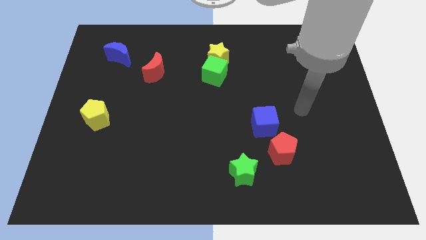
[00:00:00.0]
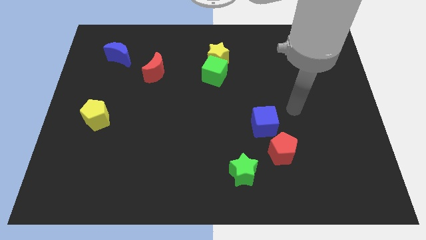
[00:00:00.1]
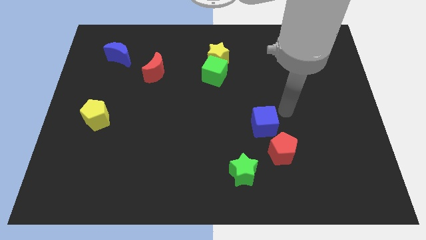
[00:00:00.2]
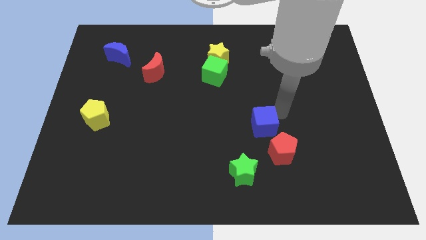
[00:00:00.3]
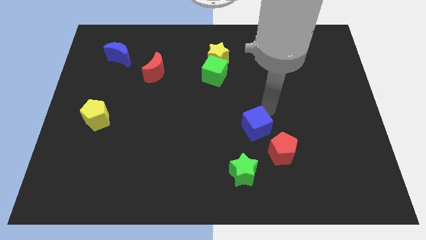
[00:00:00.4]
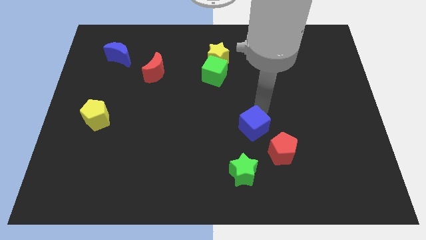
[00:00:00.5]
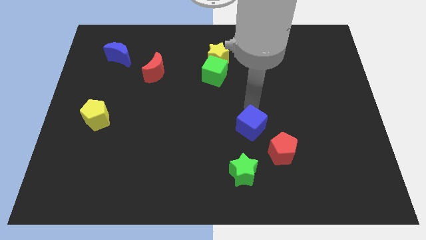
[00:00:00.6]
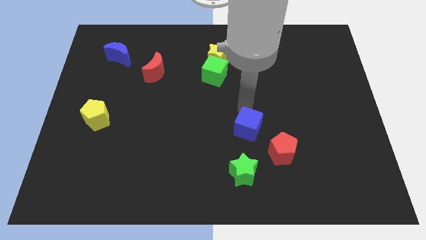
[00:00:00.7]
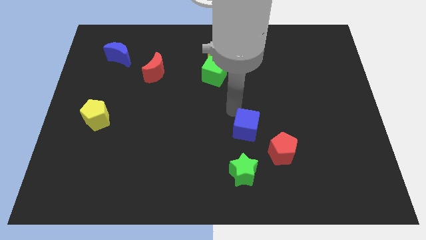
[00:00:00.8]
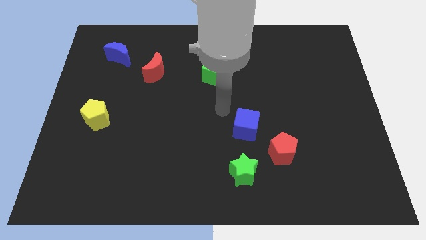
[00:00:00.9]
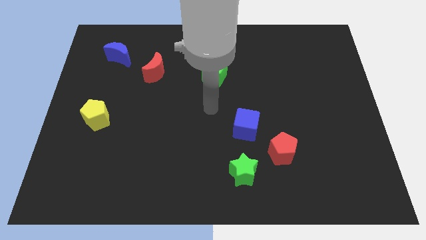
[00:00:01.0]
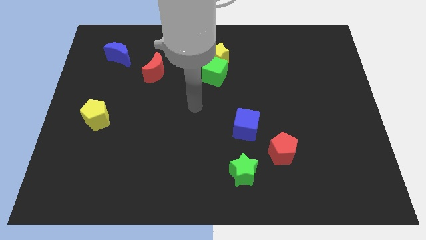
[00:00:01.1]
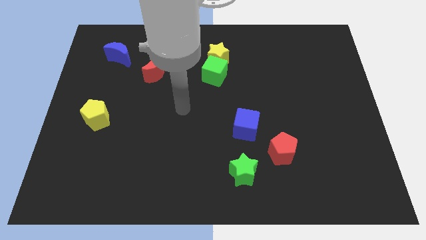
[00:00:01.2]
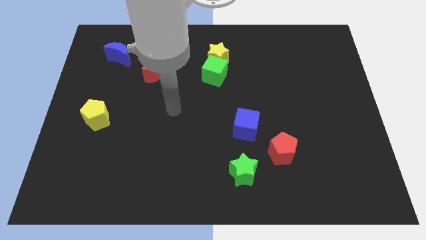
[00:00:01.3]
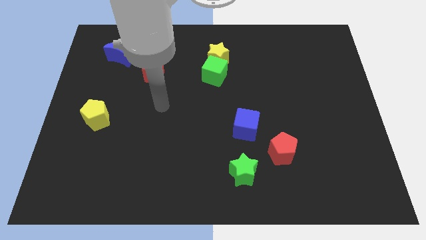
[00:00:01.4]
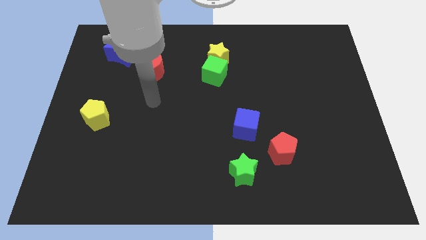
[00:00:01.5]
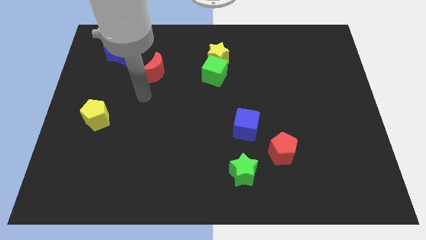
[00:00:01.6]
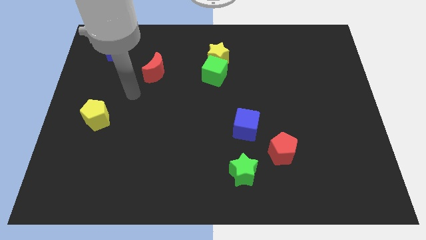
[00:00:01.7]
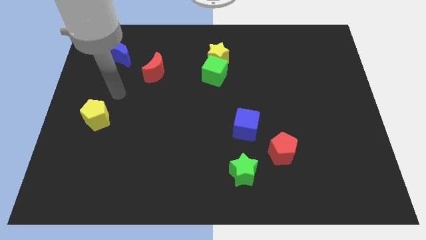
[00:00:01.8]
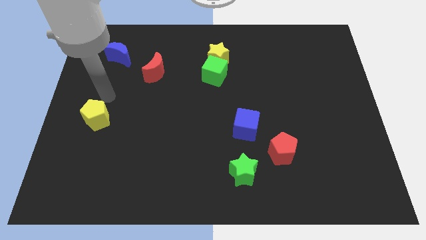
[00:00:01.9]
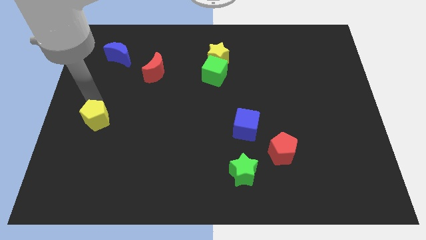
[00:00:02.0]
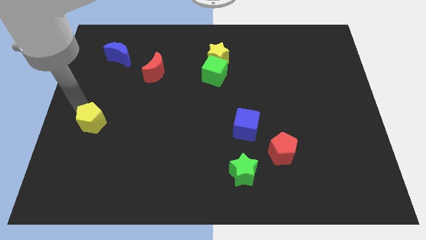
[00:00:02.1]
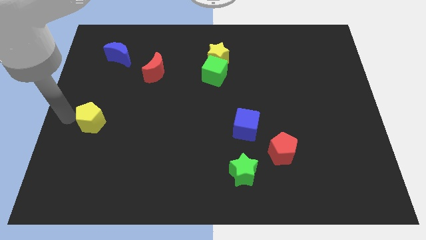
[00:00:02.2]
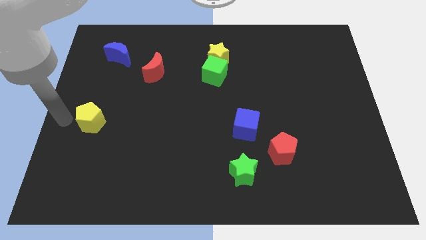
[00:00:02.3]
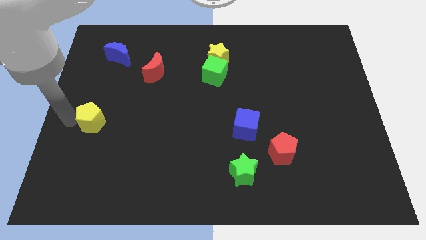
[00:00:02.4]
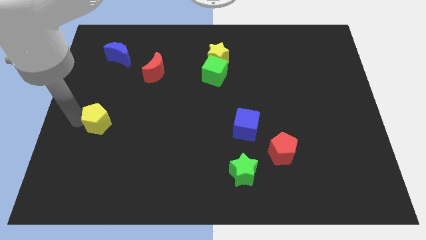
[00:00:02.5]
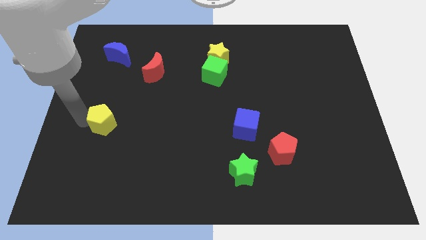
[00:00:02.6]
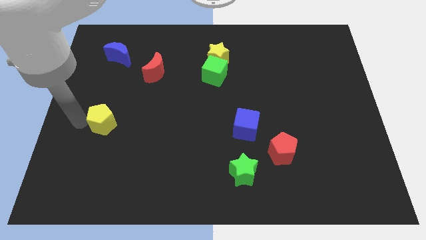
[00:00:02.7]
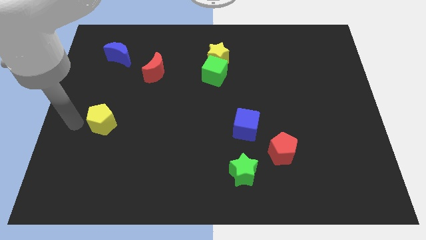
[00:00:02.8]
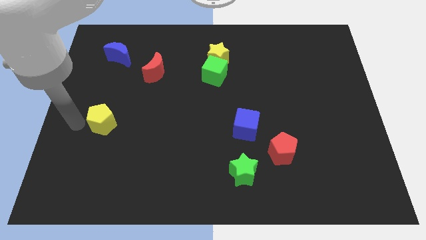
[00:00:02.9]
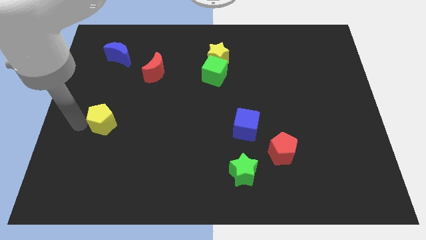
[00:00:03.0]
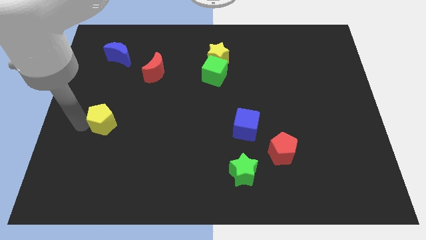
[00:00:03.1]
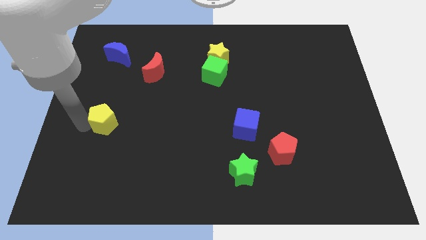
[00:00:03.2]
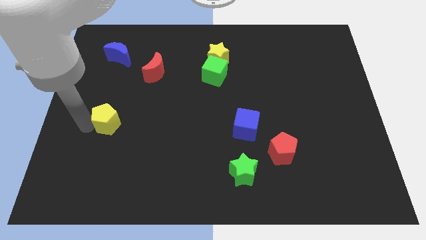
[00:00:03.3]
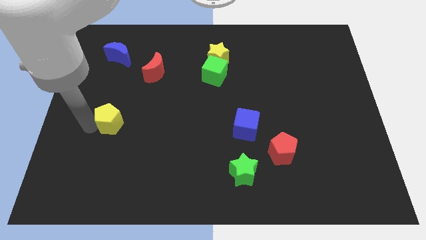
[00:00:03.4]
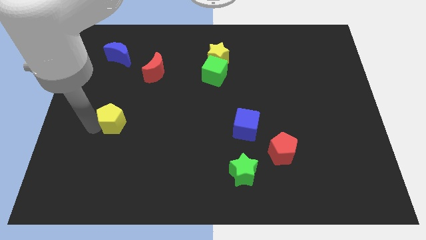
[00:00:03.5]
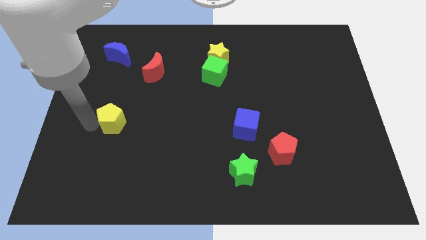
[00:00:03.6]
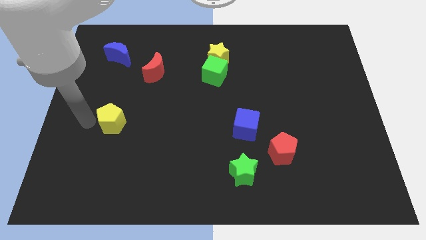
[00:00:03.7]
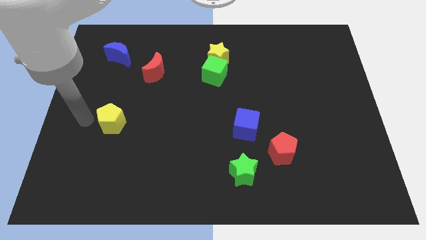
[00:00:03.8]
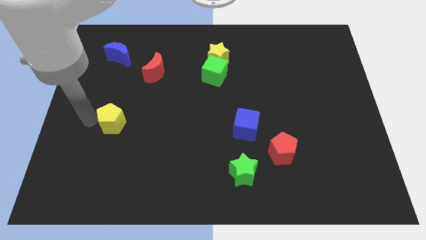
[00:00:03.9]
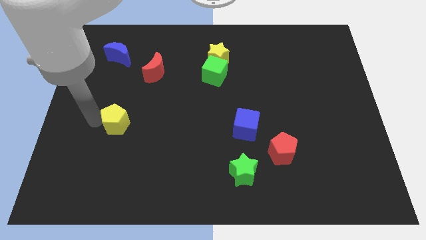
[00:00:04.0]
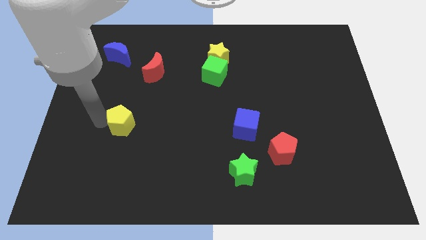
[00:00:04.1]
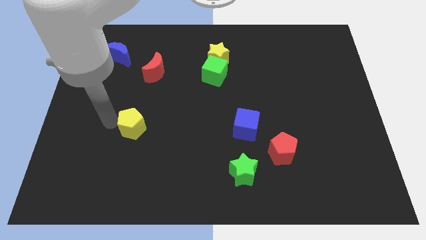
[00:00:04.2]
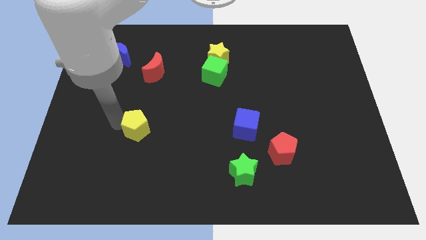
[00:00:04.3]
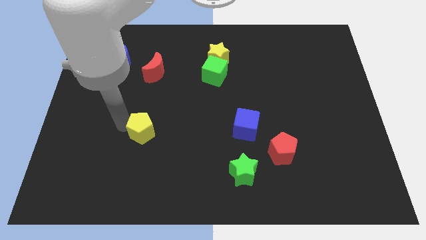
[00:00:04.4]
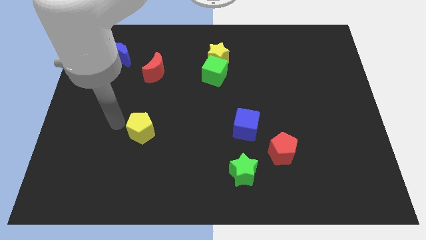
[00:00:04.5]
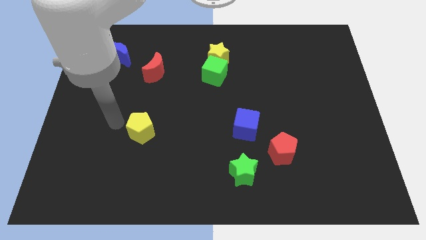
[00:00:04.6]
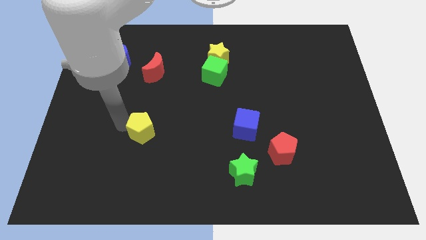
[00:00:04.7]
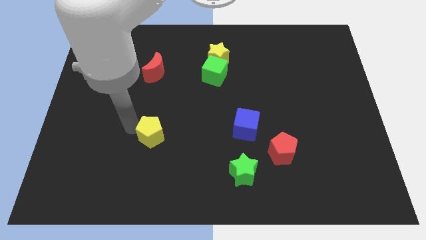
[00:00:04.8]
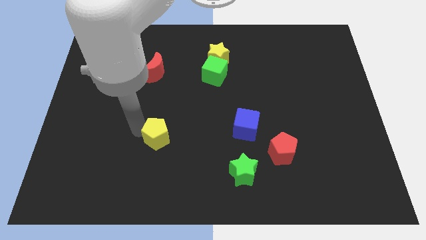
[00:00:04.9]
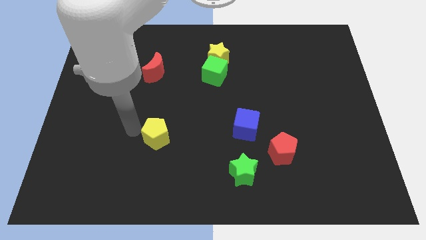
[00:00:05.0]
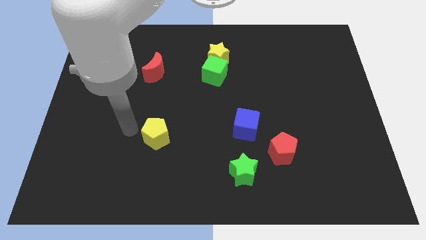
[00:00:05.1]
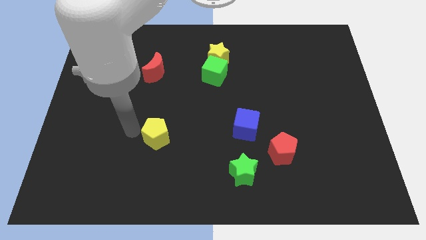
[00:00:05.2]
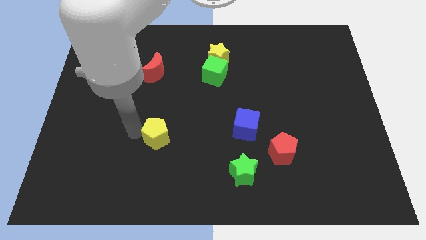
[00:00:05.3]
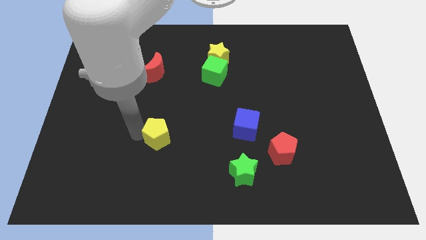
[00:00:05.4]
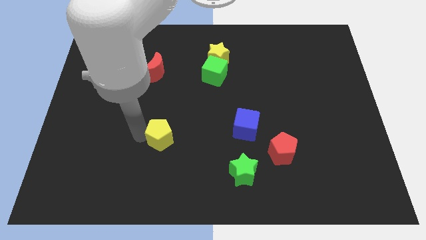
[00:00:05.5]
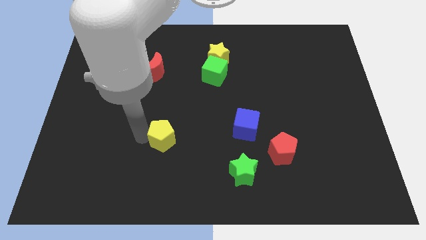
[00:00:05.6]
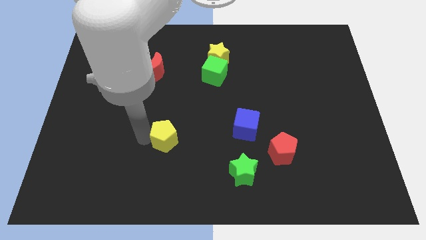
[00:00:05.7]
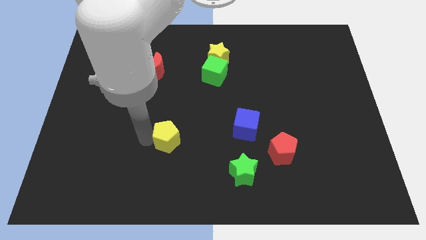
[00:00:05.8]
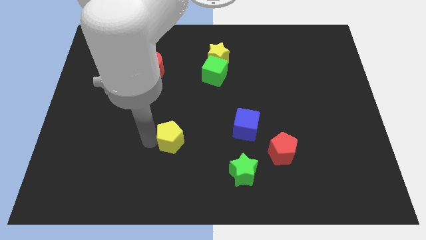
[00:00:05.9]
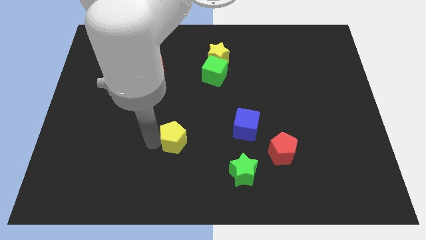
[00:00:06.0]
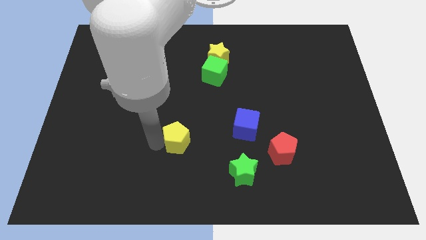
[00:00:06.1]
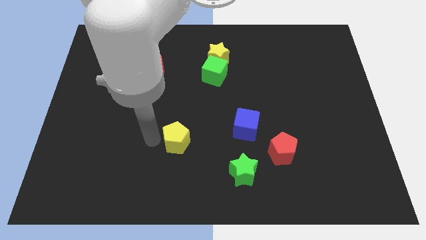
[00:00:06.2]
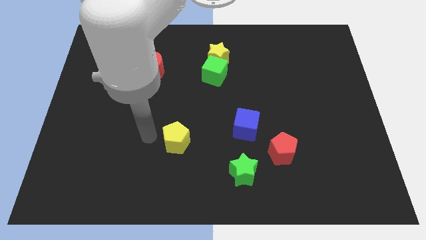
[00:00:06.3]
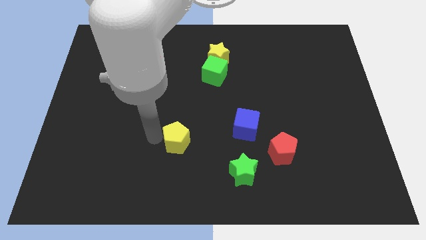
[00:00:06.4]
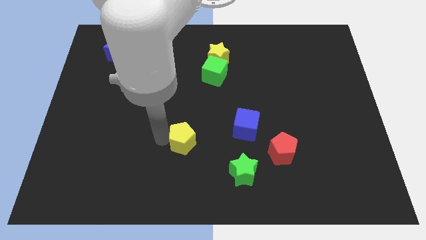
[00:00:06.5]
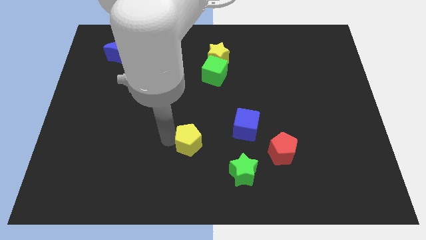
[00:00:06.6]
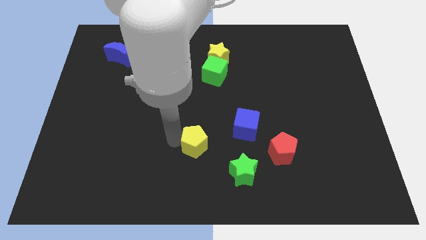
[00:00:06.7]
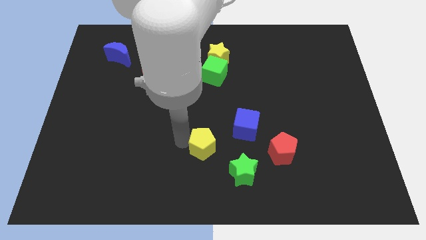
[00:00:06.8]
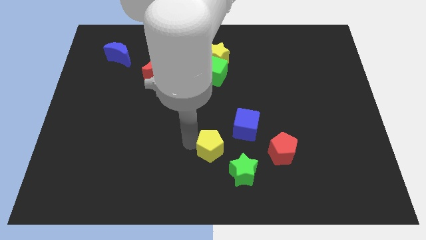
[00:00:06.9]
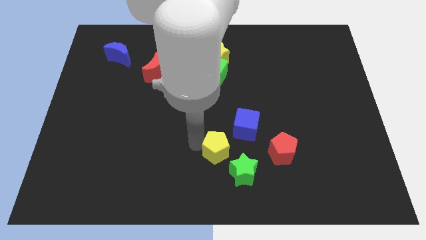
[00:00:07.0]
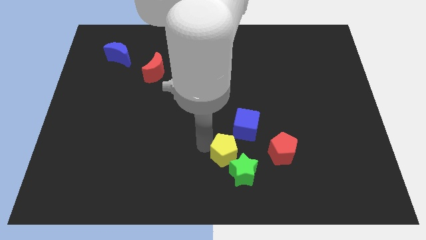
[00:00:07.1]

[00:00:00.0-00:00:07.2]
slide the yellow pentagon next to the green star
